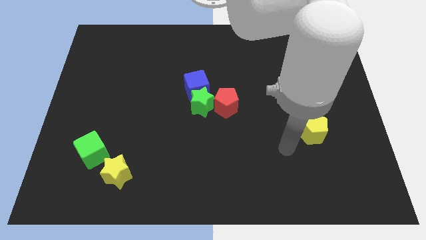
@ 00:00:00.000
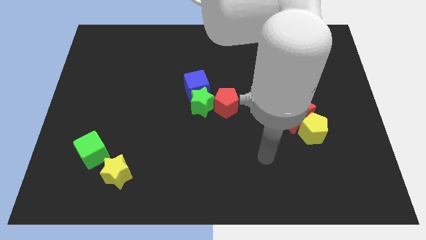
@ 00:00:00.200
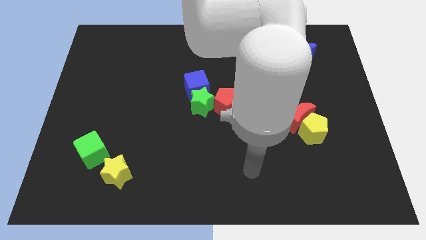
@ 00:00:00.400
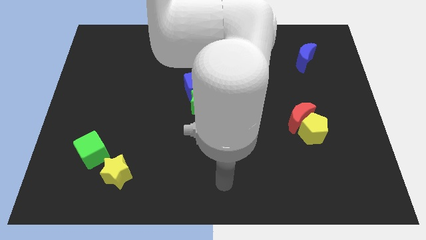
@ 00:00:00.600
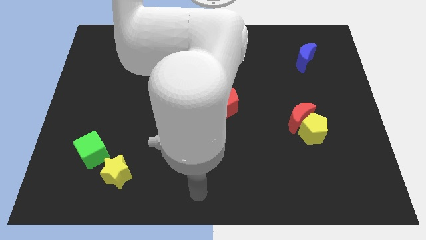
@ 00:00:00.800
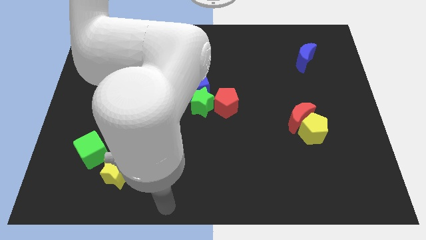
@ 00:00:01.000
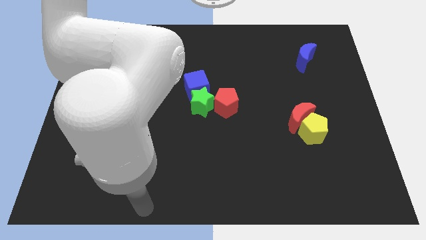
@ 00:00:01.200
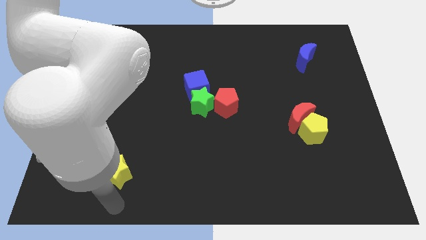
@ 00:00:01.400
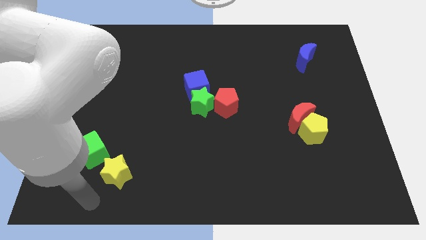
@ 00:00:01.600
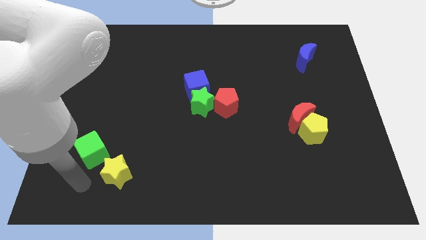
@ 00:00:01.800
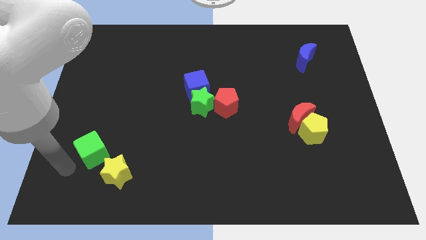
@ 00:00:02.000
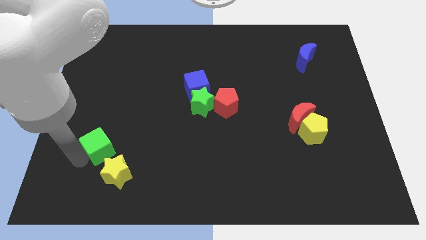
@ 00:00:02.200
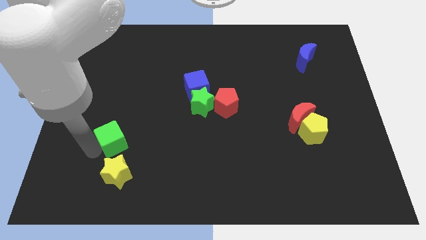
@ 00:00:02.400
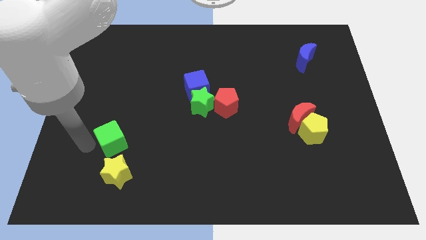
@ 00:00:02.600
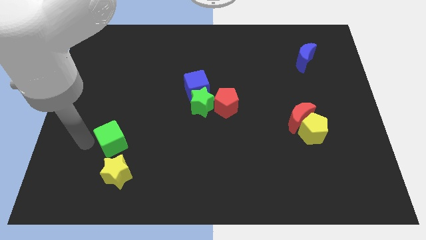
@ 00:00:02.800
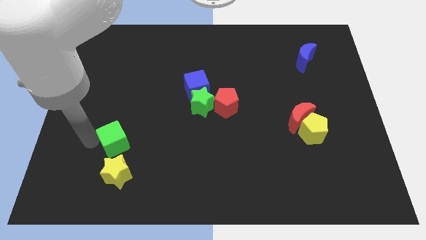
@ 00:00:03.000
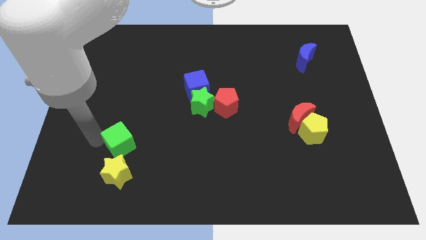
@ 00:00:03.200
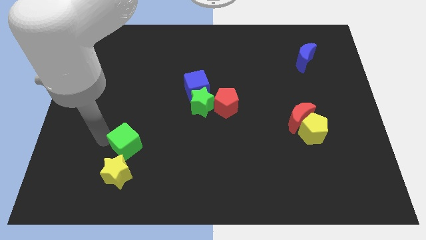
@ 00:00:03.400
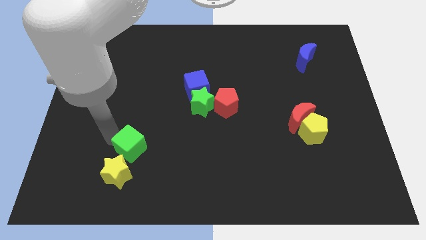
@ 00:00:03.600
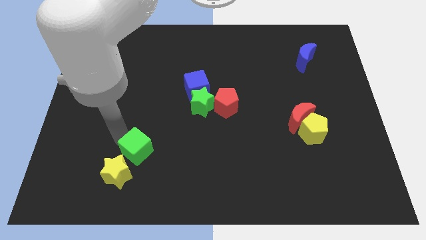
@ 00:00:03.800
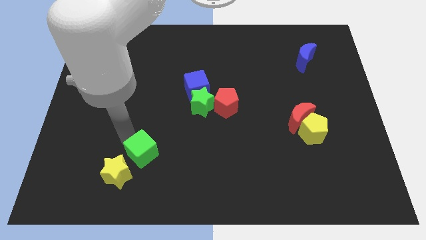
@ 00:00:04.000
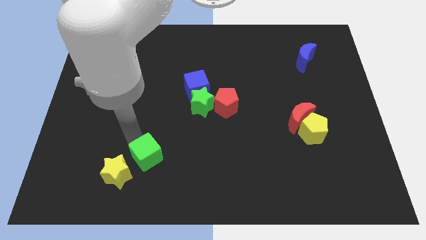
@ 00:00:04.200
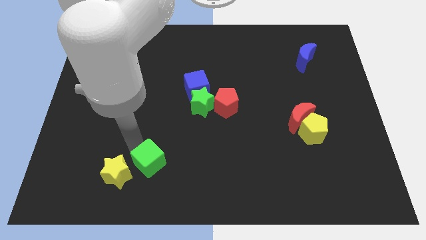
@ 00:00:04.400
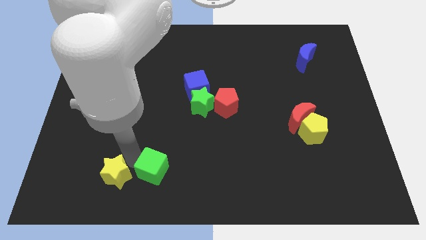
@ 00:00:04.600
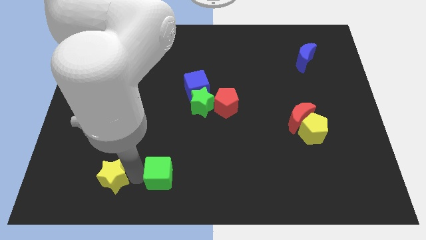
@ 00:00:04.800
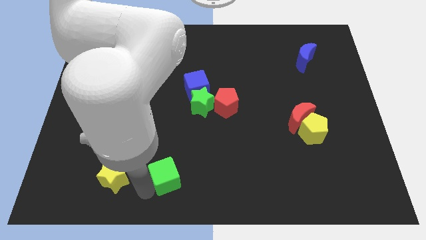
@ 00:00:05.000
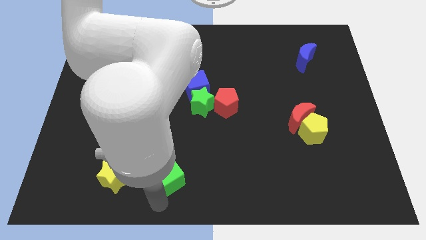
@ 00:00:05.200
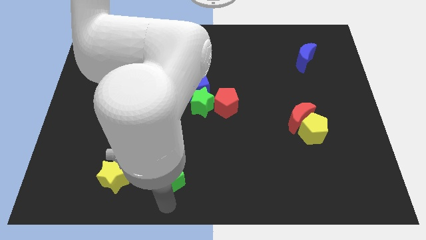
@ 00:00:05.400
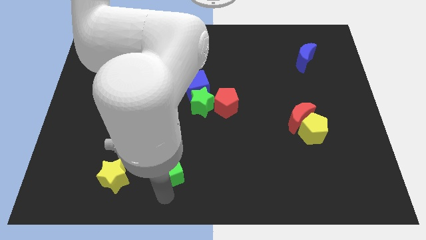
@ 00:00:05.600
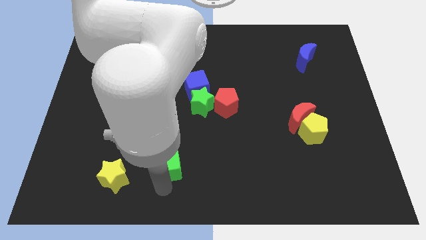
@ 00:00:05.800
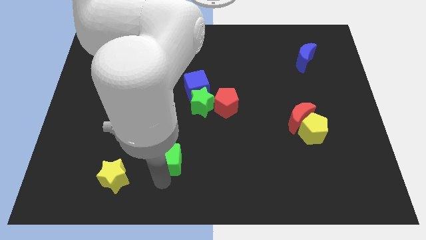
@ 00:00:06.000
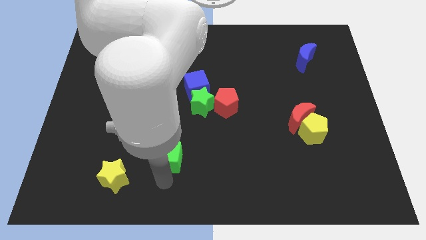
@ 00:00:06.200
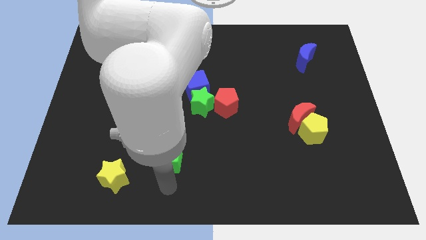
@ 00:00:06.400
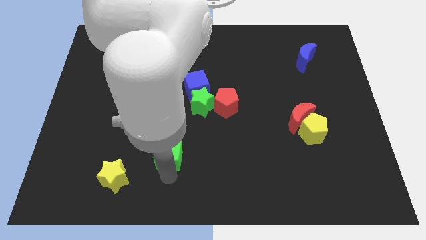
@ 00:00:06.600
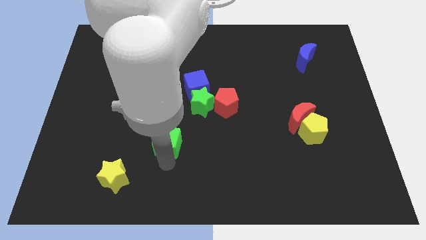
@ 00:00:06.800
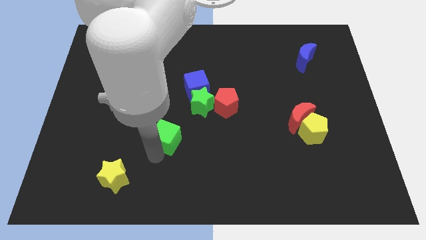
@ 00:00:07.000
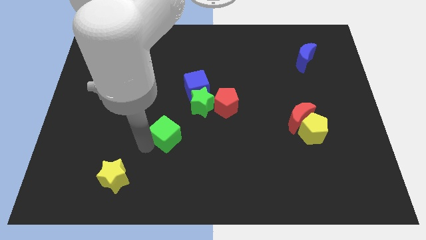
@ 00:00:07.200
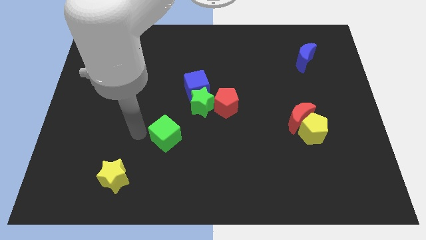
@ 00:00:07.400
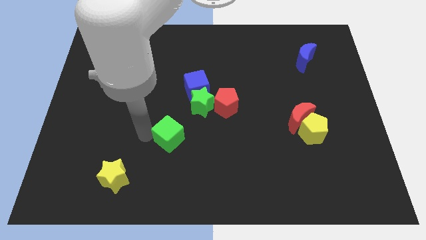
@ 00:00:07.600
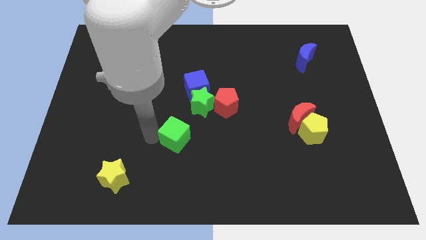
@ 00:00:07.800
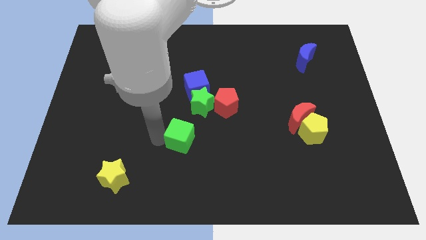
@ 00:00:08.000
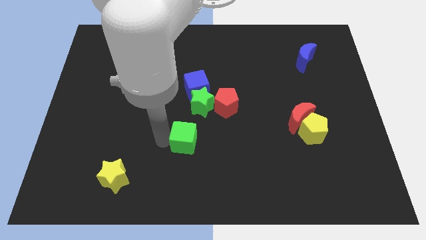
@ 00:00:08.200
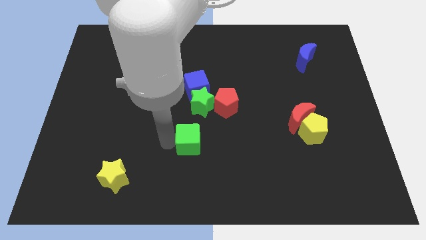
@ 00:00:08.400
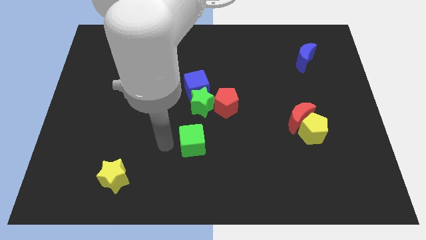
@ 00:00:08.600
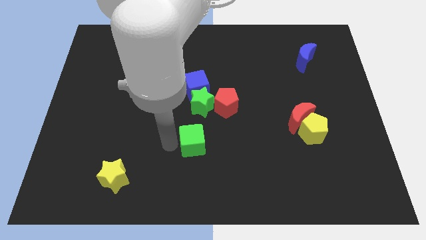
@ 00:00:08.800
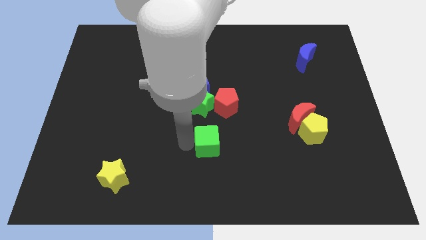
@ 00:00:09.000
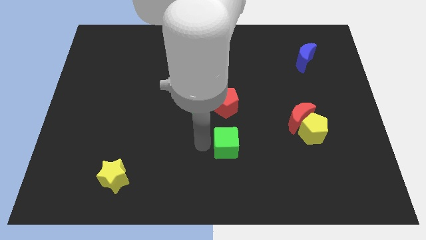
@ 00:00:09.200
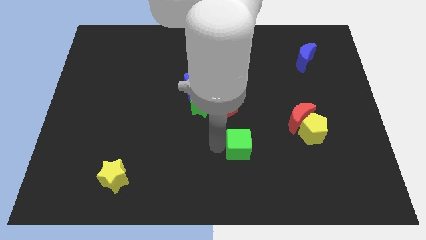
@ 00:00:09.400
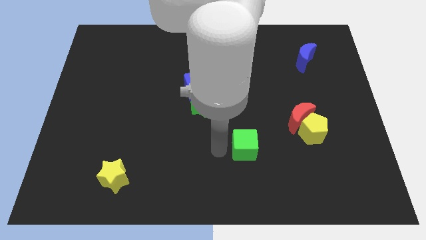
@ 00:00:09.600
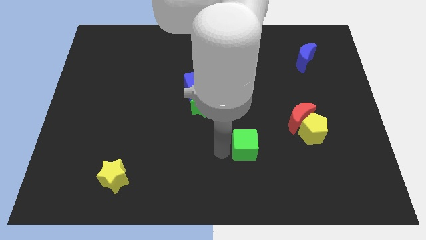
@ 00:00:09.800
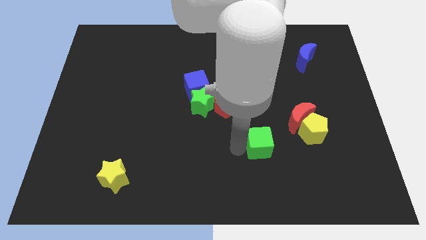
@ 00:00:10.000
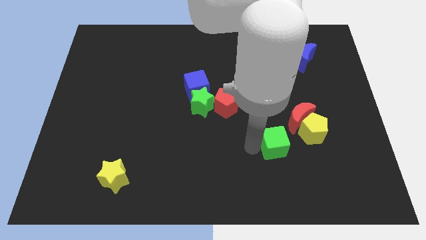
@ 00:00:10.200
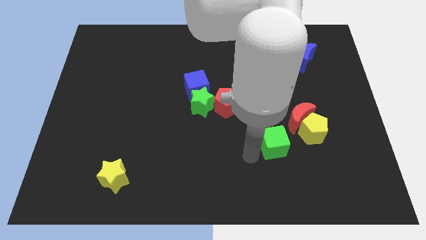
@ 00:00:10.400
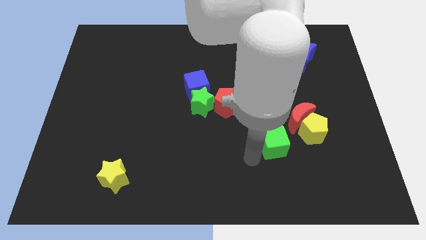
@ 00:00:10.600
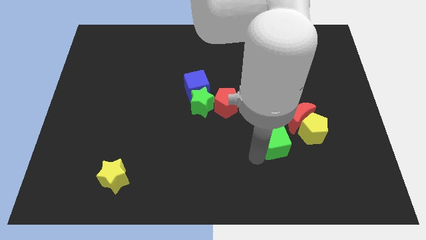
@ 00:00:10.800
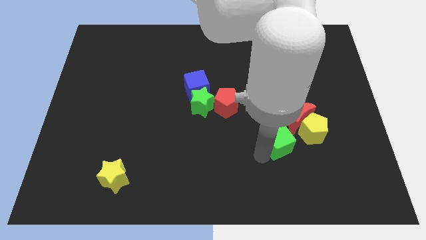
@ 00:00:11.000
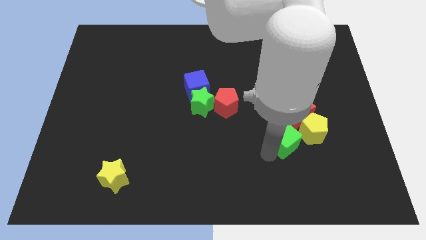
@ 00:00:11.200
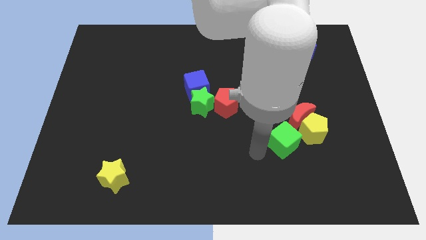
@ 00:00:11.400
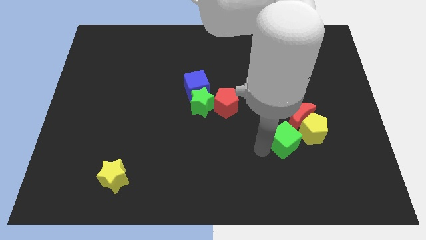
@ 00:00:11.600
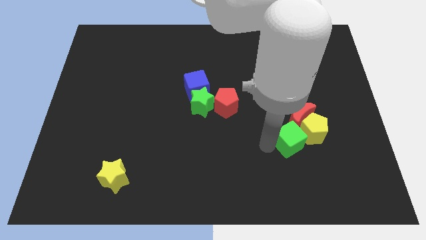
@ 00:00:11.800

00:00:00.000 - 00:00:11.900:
move the green cube close to the yellow pentagon

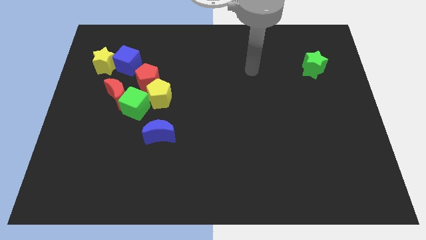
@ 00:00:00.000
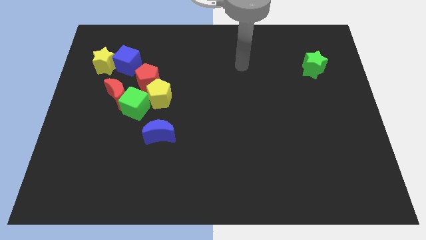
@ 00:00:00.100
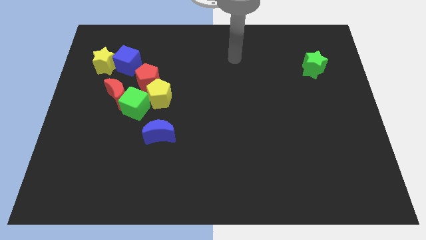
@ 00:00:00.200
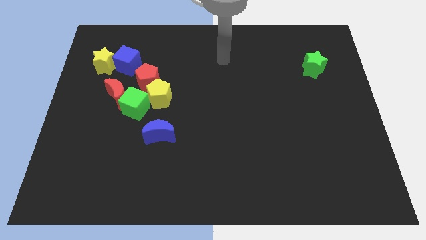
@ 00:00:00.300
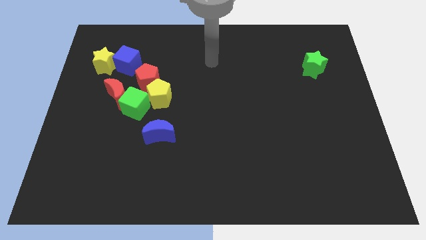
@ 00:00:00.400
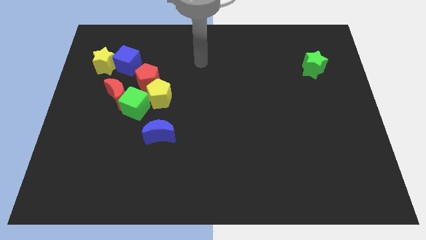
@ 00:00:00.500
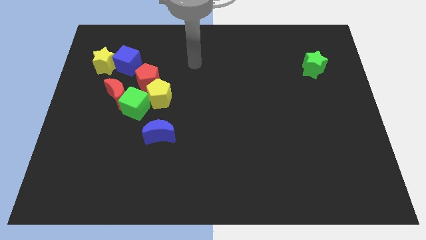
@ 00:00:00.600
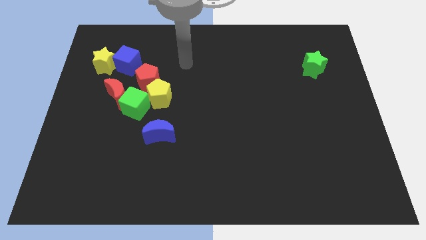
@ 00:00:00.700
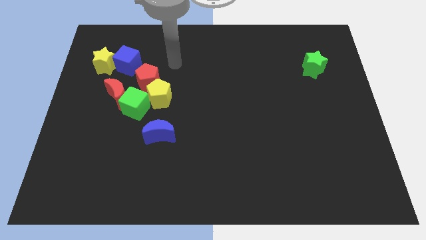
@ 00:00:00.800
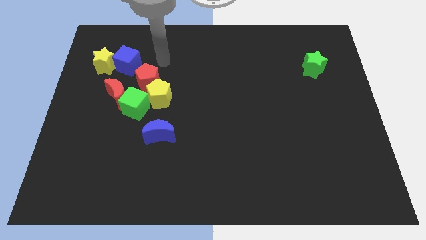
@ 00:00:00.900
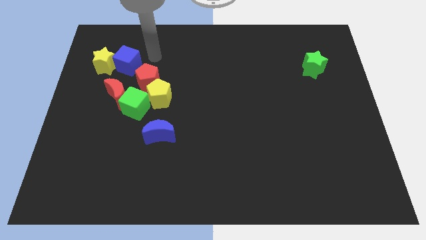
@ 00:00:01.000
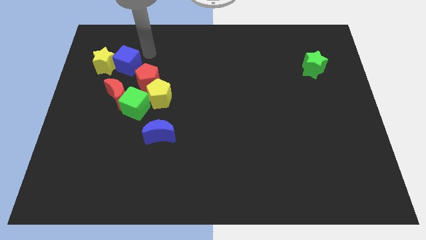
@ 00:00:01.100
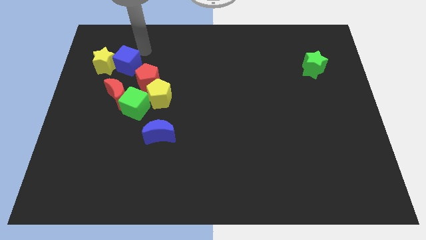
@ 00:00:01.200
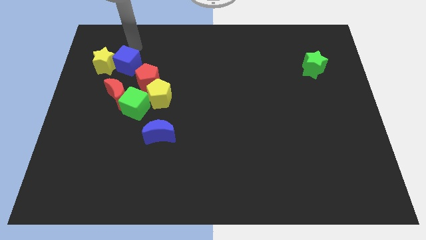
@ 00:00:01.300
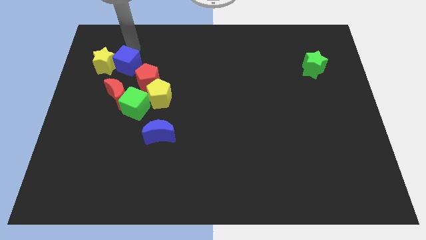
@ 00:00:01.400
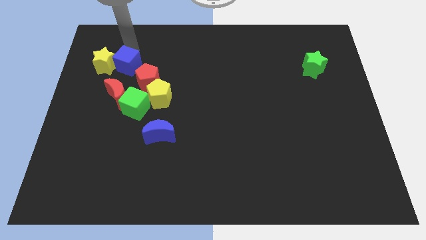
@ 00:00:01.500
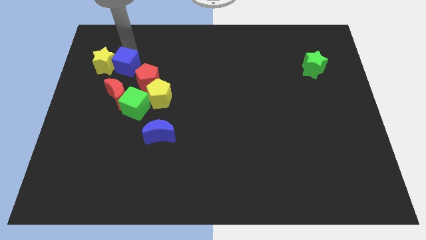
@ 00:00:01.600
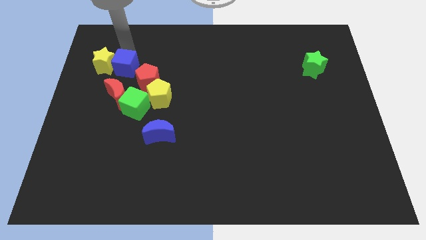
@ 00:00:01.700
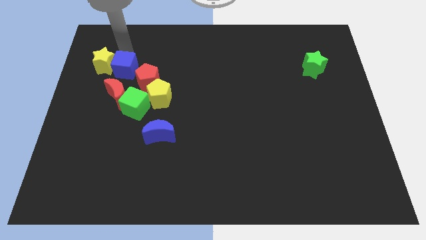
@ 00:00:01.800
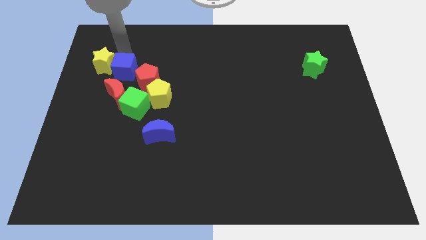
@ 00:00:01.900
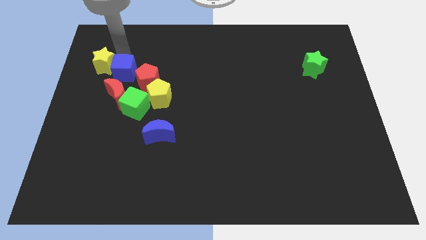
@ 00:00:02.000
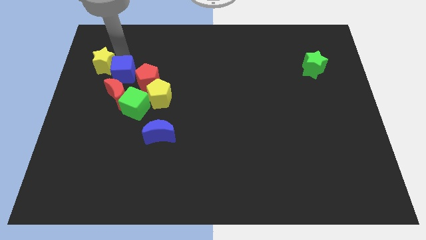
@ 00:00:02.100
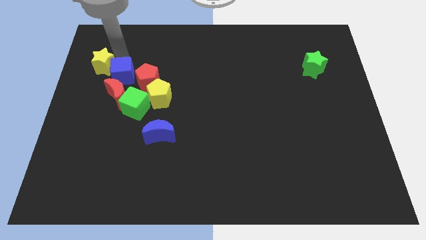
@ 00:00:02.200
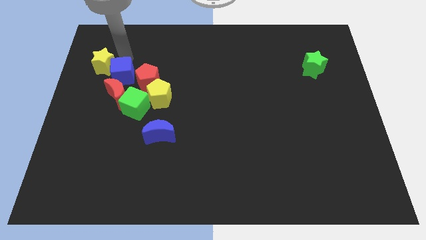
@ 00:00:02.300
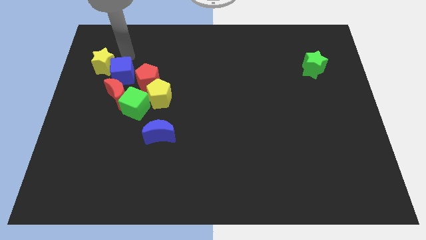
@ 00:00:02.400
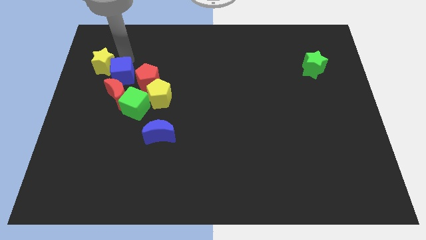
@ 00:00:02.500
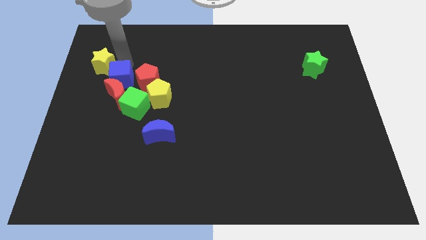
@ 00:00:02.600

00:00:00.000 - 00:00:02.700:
put the blue cube close to the red moon
